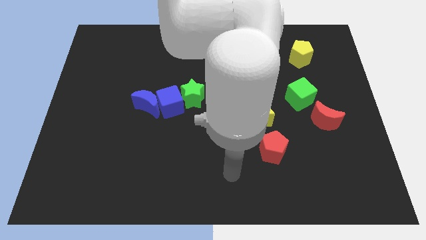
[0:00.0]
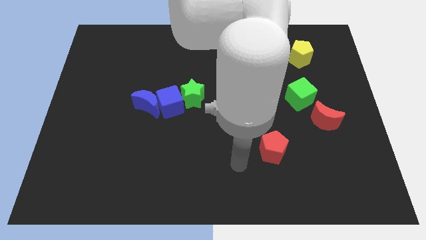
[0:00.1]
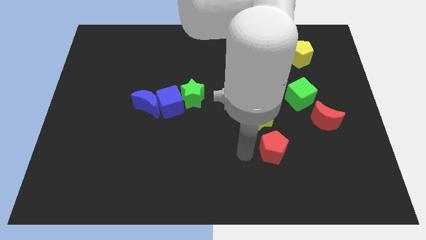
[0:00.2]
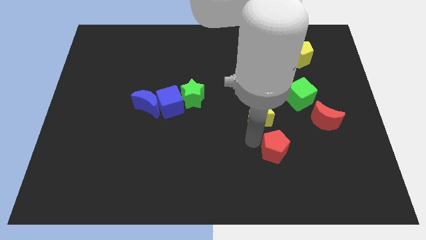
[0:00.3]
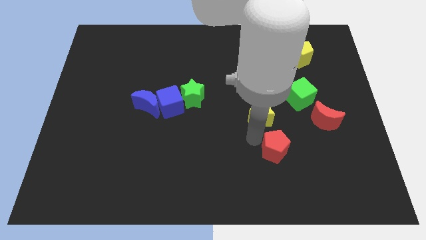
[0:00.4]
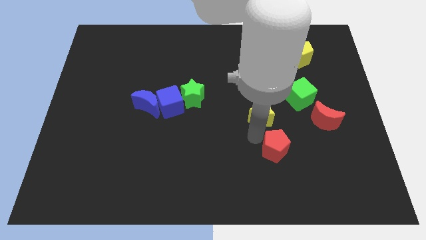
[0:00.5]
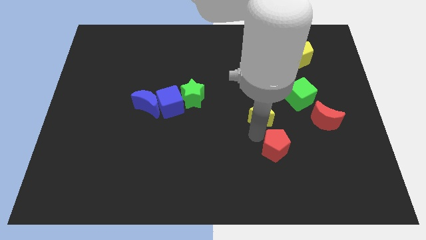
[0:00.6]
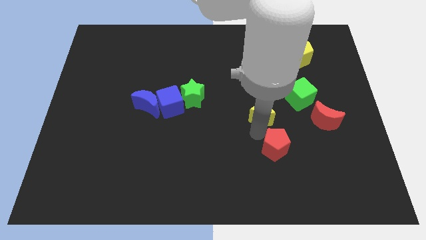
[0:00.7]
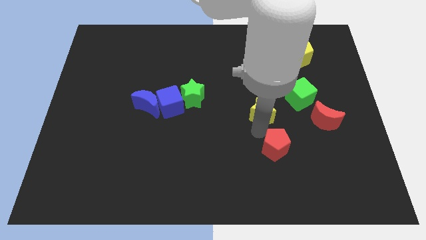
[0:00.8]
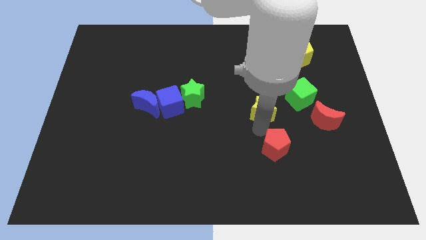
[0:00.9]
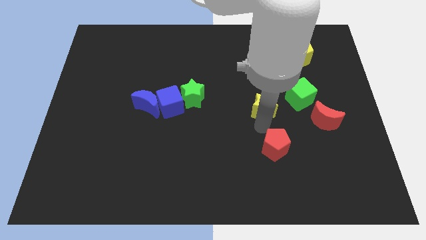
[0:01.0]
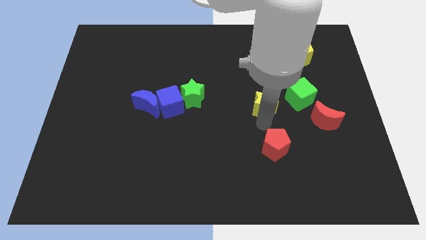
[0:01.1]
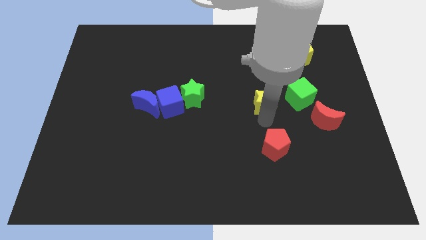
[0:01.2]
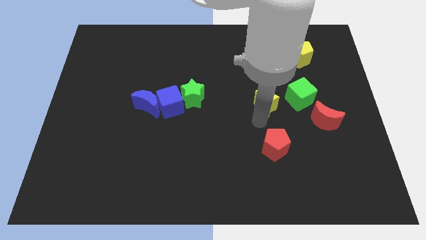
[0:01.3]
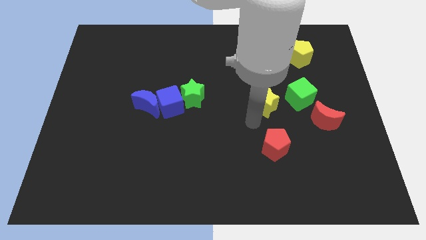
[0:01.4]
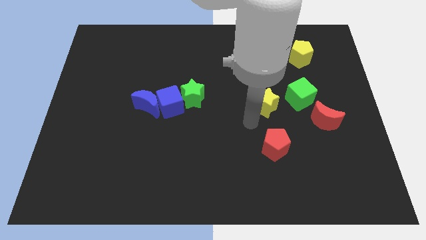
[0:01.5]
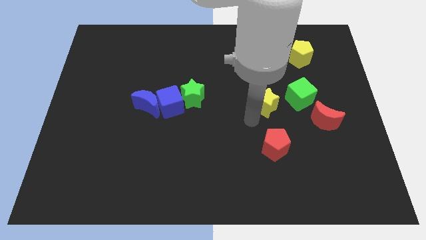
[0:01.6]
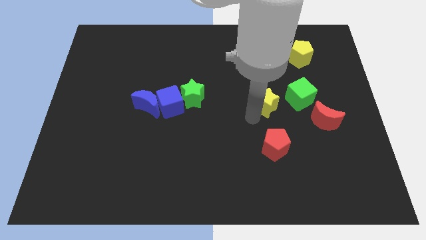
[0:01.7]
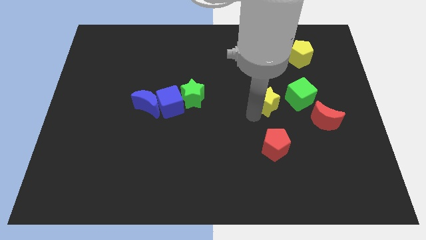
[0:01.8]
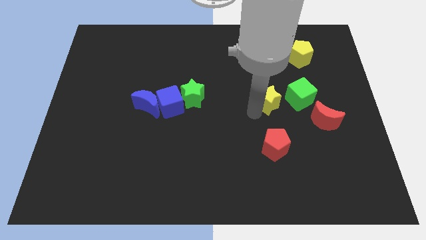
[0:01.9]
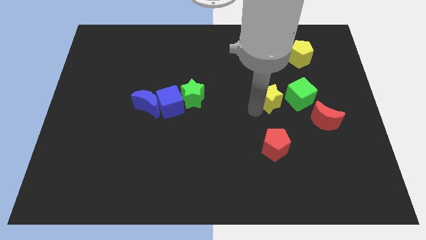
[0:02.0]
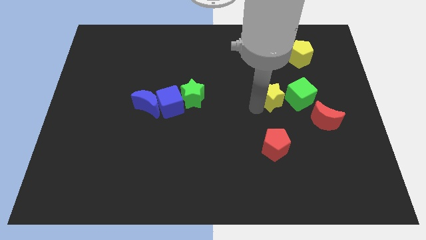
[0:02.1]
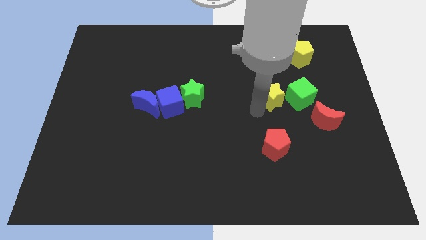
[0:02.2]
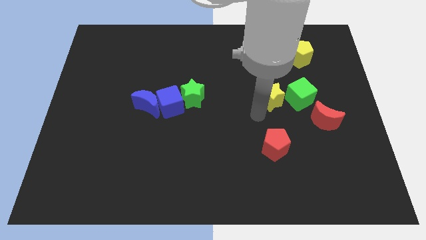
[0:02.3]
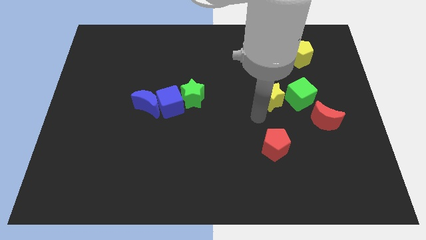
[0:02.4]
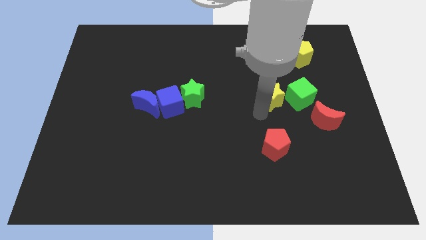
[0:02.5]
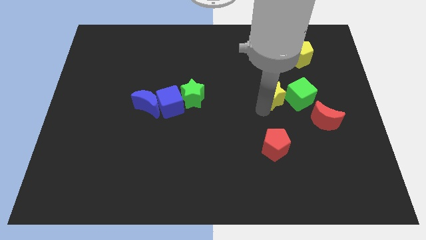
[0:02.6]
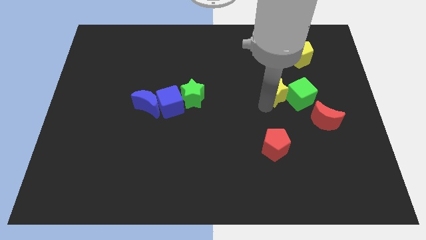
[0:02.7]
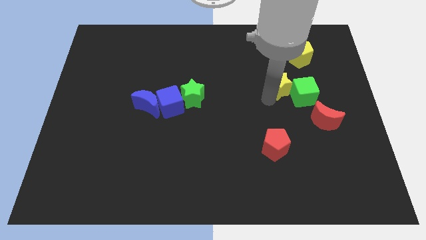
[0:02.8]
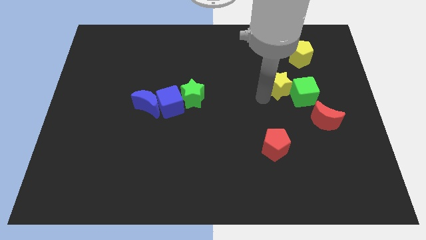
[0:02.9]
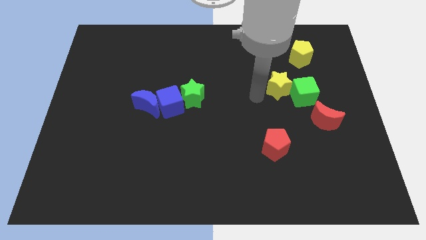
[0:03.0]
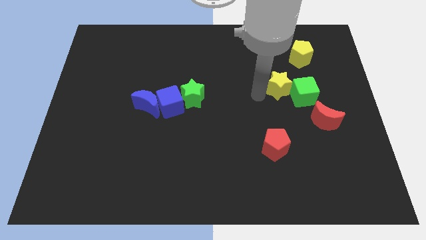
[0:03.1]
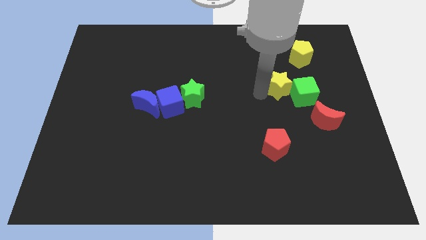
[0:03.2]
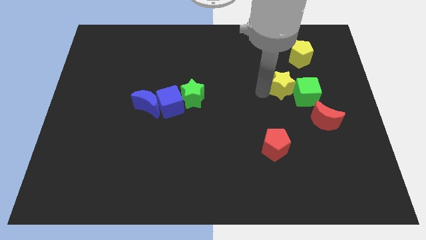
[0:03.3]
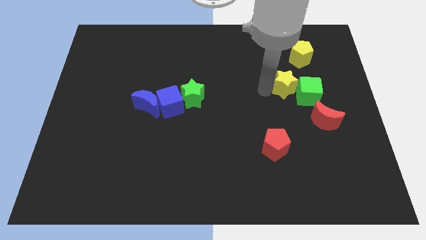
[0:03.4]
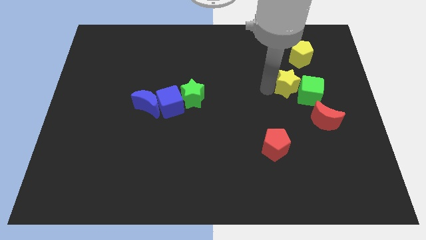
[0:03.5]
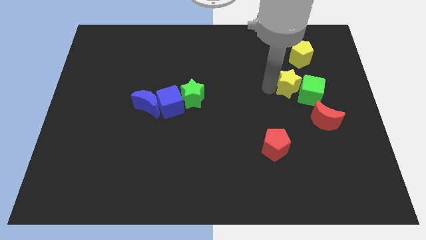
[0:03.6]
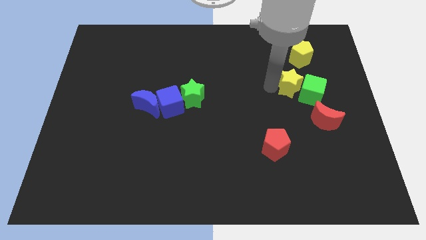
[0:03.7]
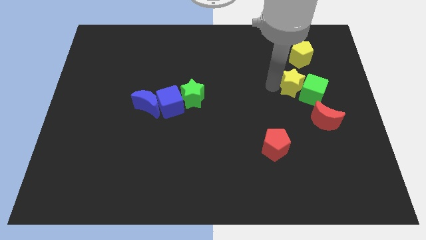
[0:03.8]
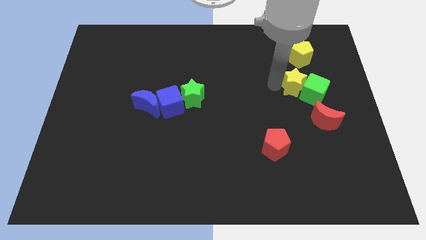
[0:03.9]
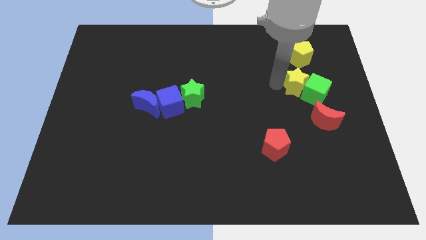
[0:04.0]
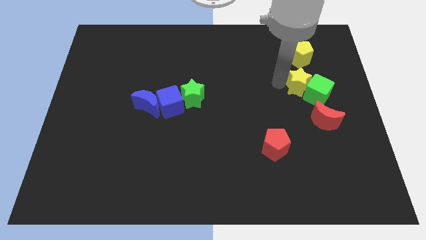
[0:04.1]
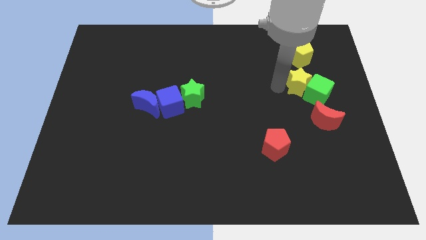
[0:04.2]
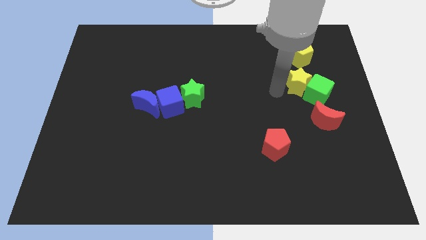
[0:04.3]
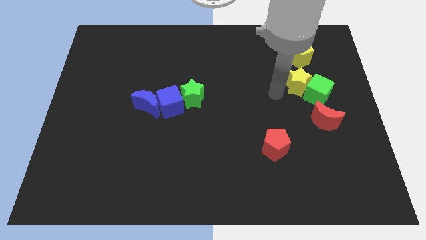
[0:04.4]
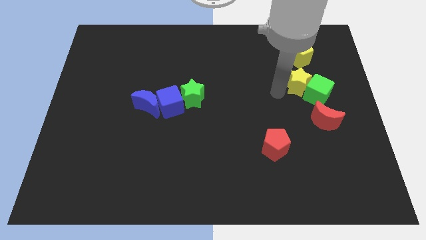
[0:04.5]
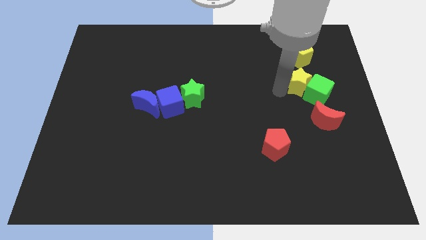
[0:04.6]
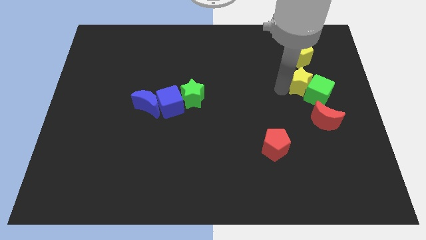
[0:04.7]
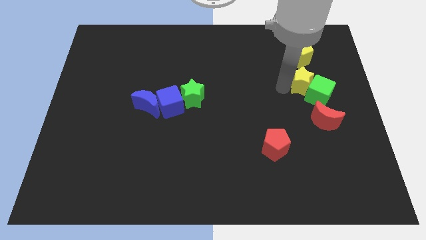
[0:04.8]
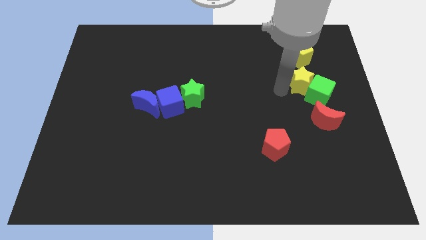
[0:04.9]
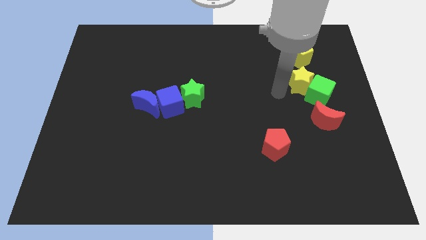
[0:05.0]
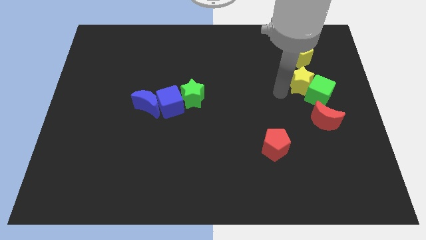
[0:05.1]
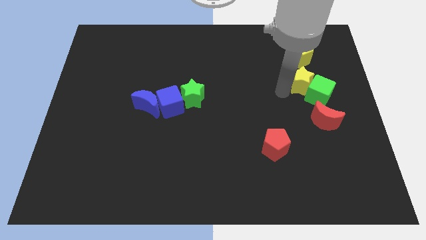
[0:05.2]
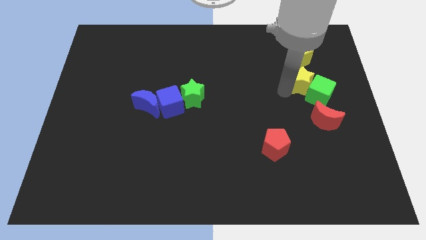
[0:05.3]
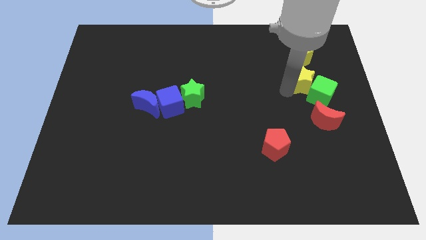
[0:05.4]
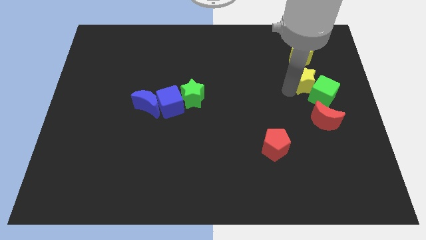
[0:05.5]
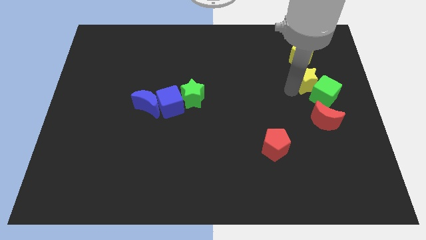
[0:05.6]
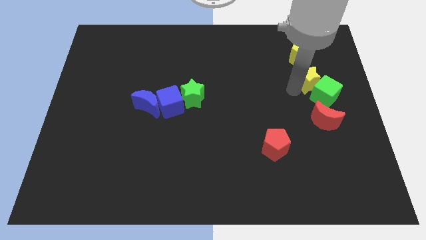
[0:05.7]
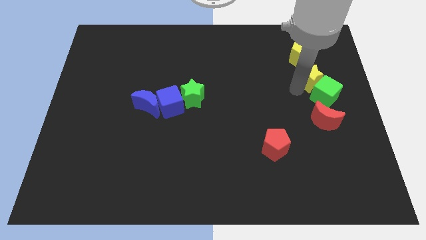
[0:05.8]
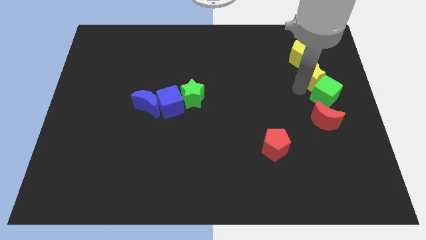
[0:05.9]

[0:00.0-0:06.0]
slide the yellow star to the bottom right side of the yellow pentagon

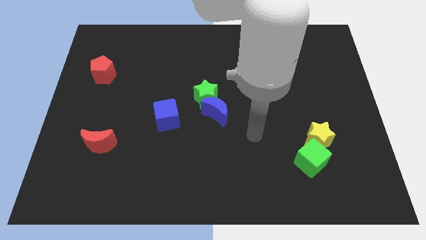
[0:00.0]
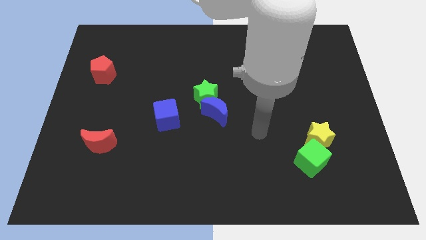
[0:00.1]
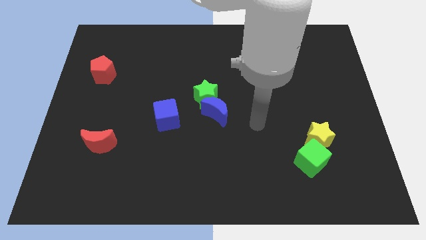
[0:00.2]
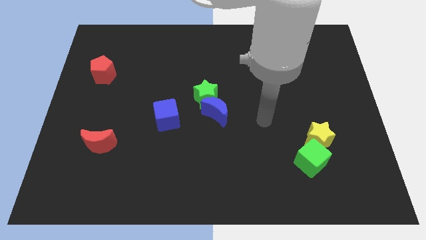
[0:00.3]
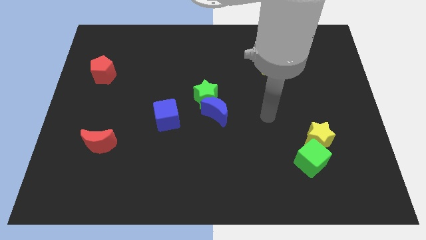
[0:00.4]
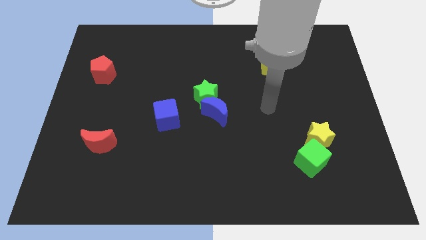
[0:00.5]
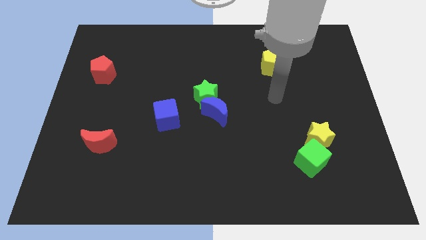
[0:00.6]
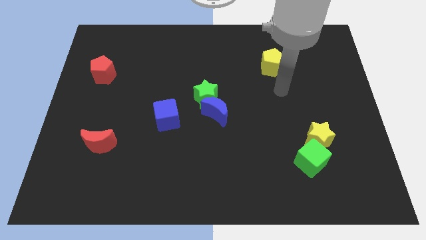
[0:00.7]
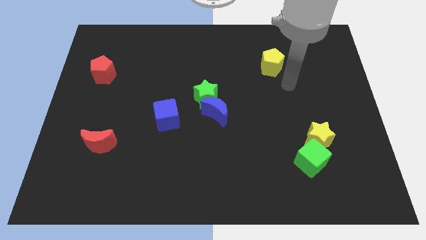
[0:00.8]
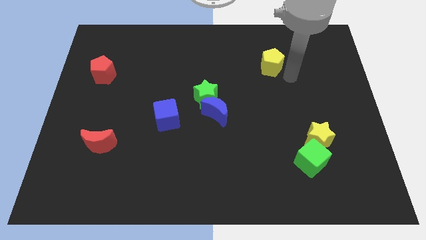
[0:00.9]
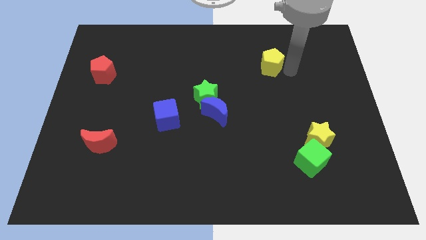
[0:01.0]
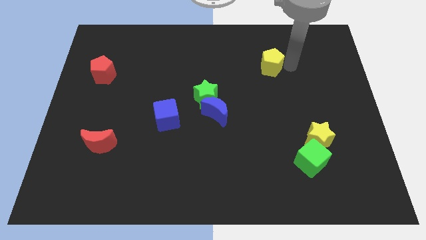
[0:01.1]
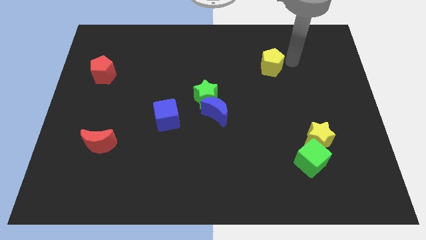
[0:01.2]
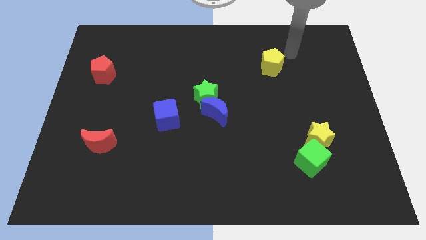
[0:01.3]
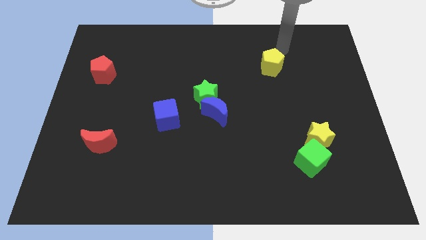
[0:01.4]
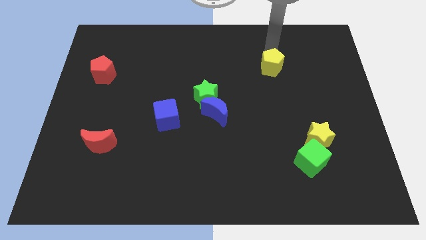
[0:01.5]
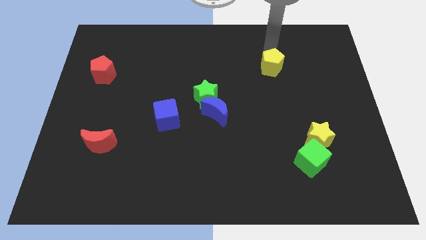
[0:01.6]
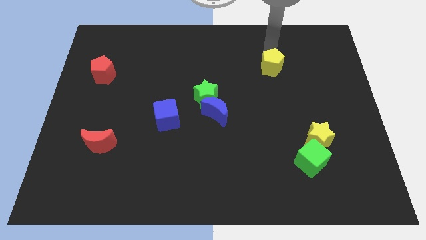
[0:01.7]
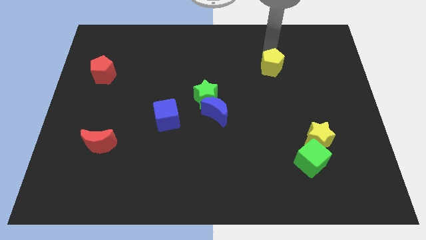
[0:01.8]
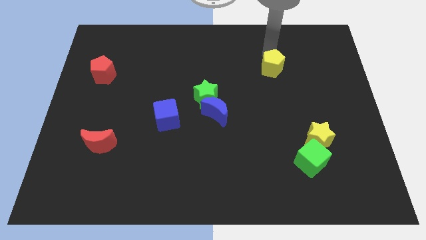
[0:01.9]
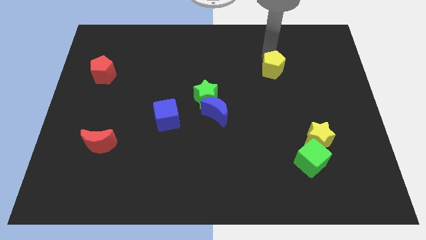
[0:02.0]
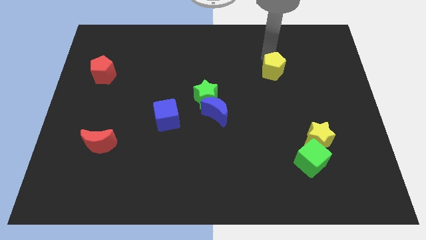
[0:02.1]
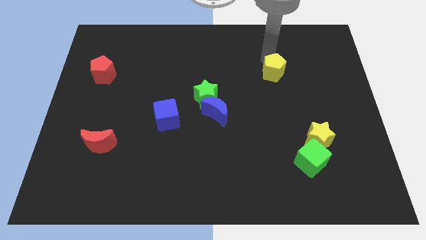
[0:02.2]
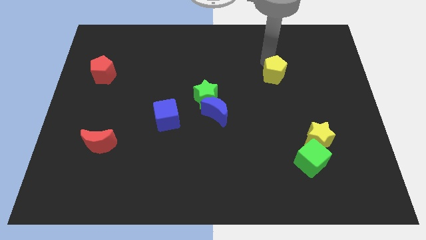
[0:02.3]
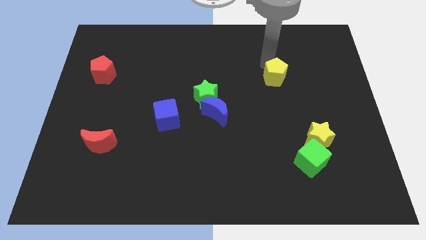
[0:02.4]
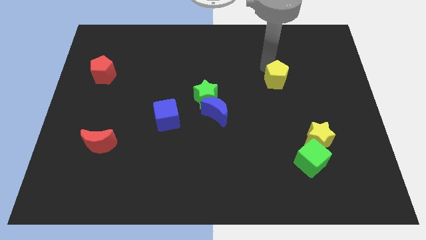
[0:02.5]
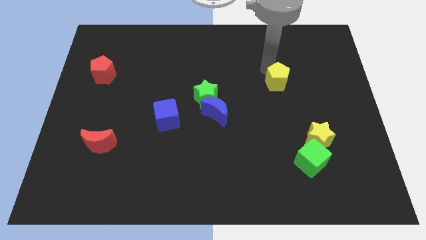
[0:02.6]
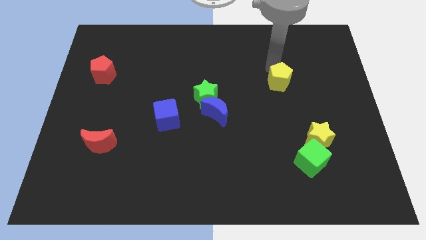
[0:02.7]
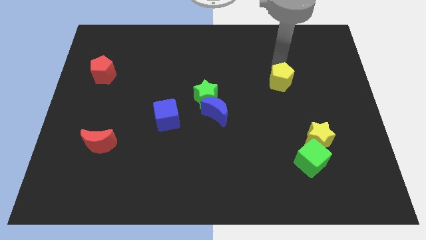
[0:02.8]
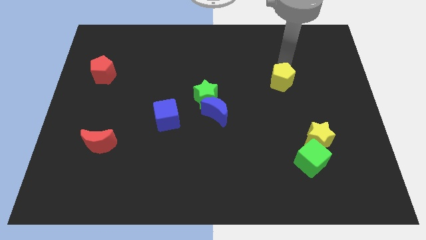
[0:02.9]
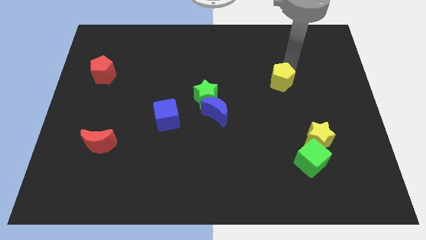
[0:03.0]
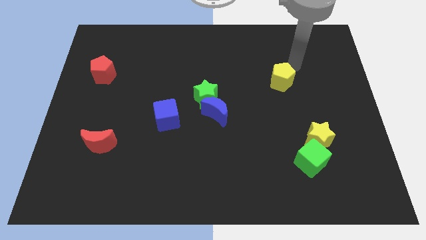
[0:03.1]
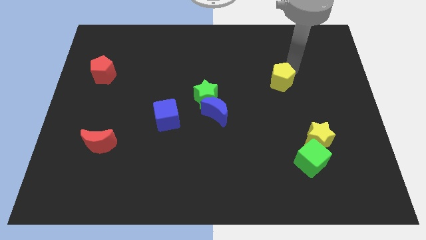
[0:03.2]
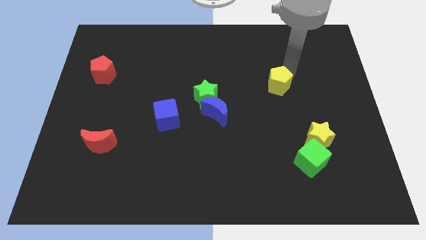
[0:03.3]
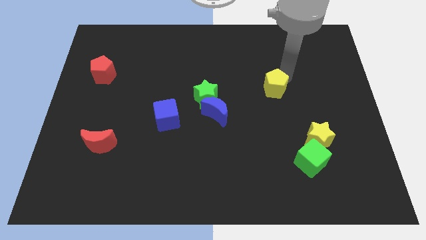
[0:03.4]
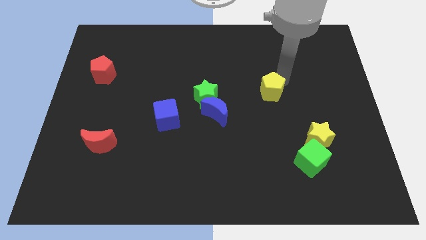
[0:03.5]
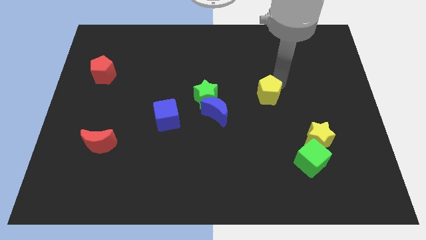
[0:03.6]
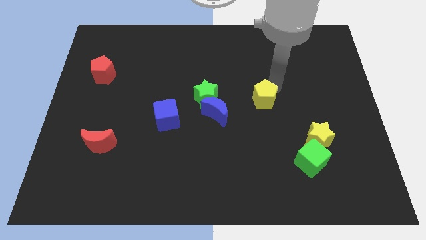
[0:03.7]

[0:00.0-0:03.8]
move the yellow pentagon to the right side of the blue moon
